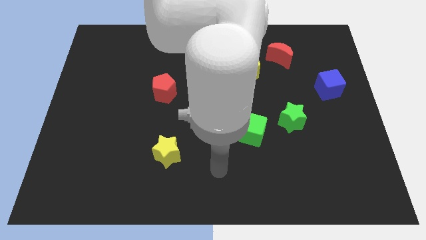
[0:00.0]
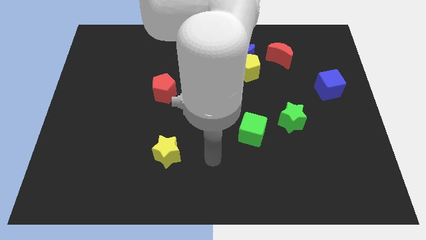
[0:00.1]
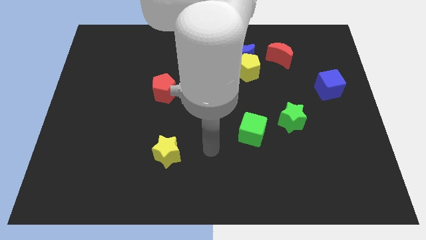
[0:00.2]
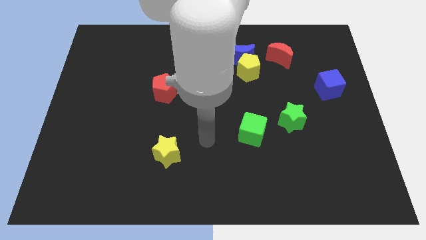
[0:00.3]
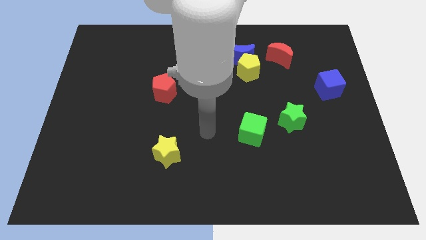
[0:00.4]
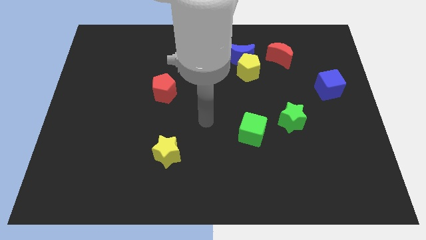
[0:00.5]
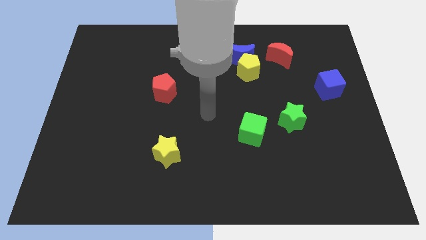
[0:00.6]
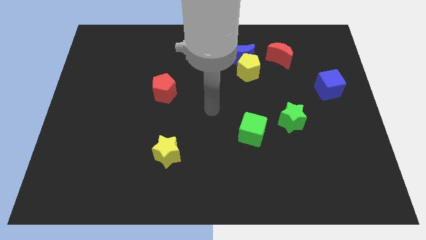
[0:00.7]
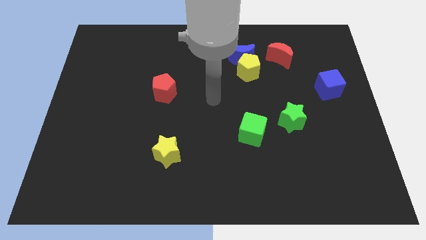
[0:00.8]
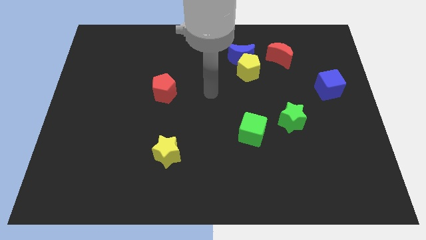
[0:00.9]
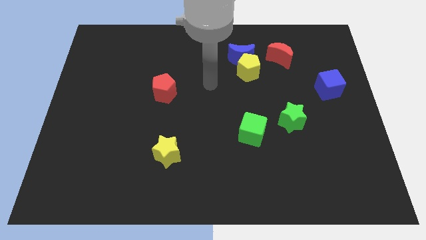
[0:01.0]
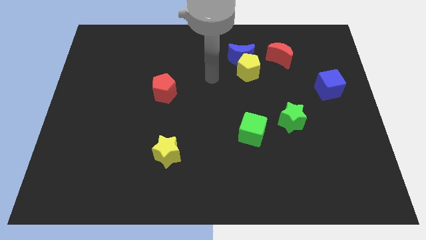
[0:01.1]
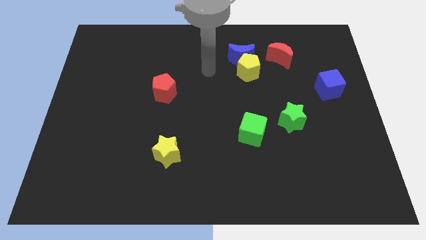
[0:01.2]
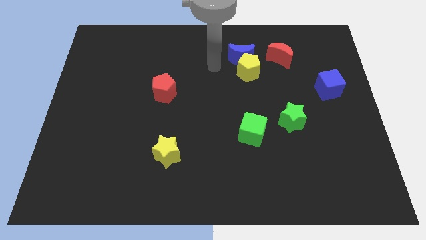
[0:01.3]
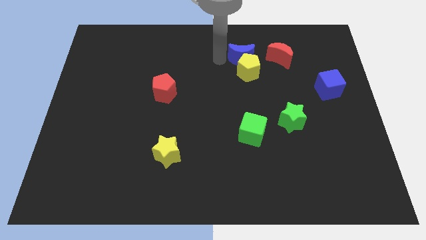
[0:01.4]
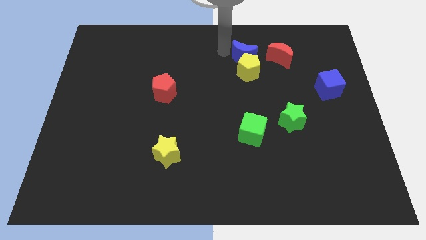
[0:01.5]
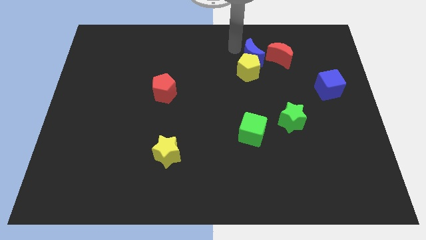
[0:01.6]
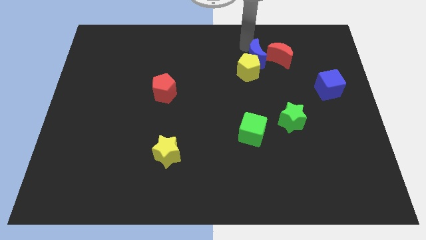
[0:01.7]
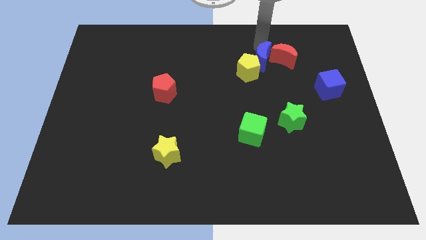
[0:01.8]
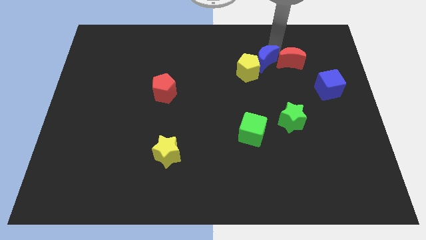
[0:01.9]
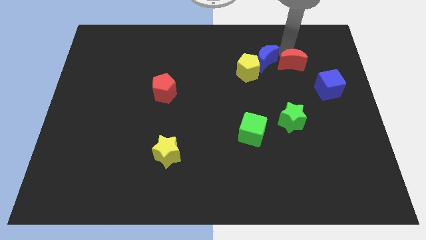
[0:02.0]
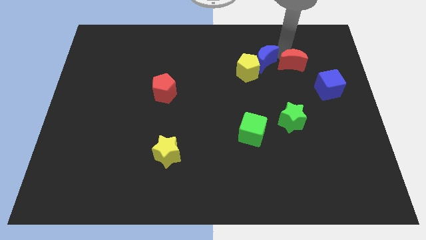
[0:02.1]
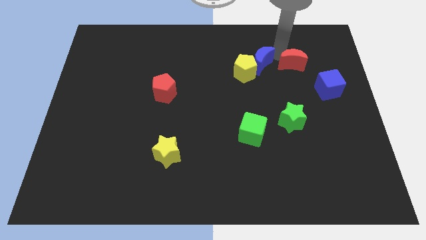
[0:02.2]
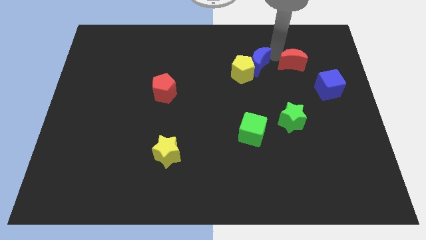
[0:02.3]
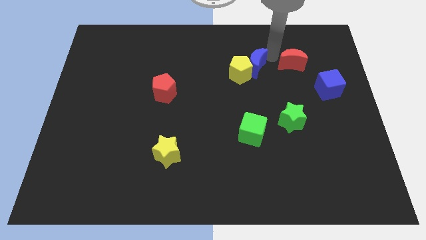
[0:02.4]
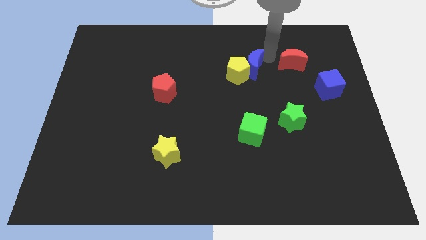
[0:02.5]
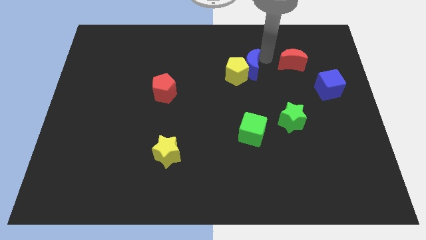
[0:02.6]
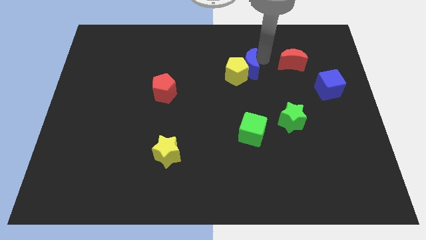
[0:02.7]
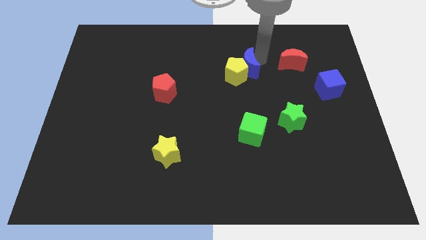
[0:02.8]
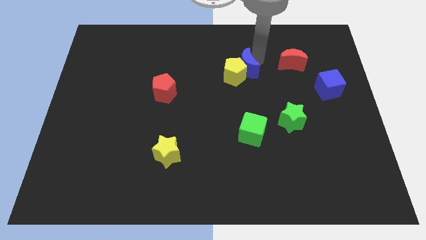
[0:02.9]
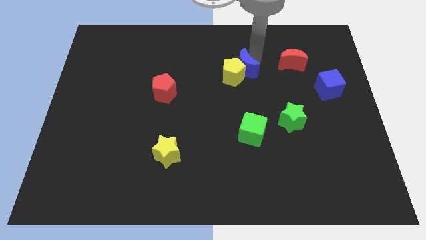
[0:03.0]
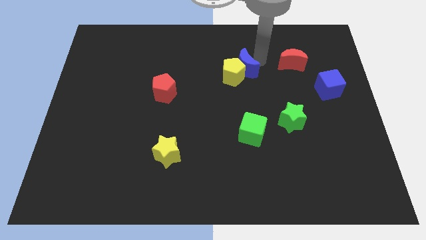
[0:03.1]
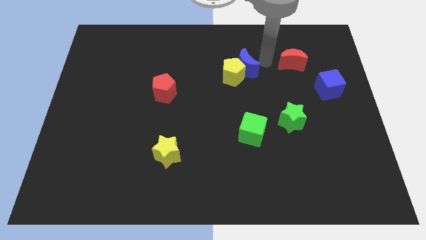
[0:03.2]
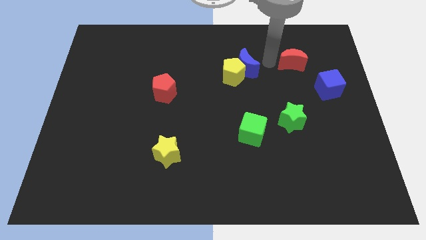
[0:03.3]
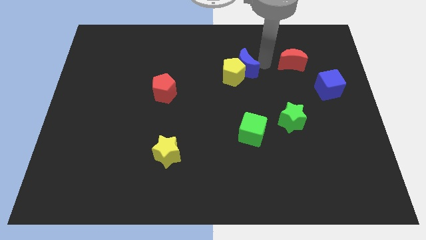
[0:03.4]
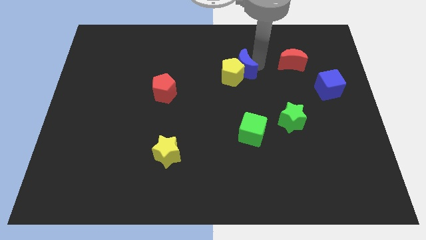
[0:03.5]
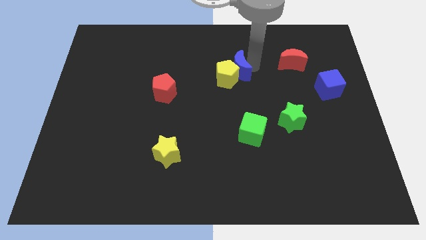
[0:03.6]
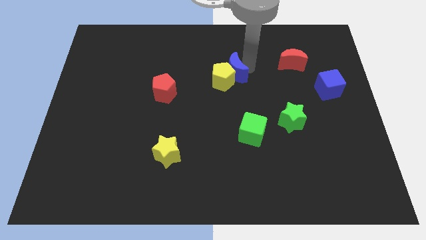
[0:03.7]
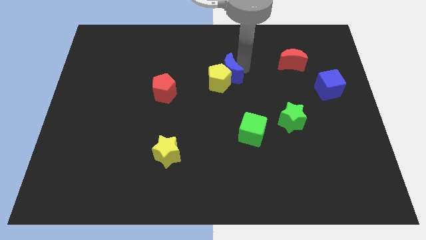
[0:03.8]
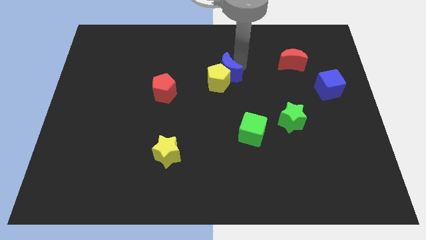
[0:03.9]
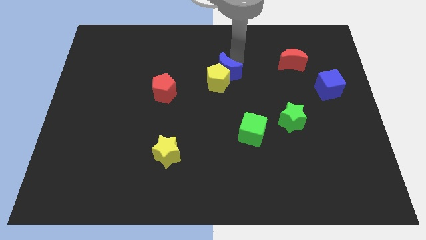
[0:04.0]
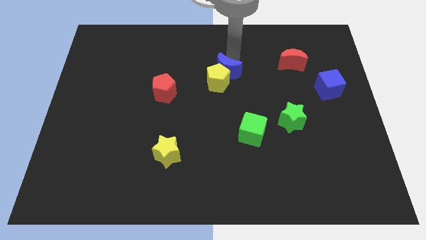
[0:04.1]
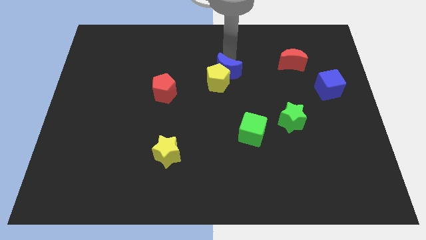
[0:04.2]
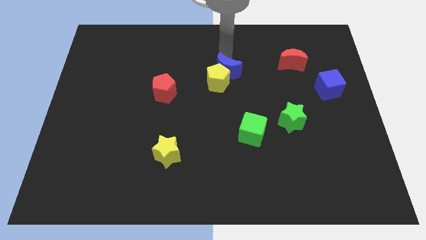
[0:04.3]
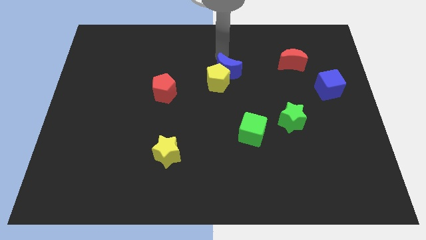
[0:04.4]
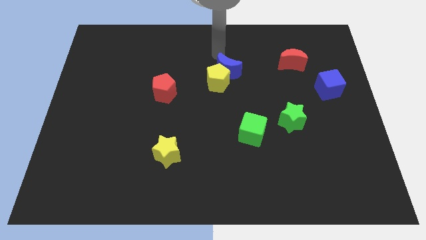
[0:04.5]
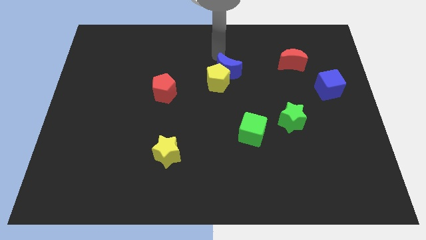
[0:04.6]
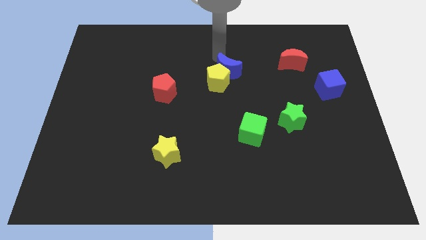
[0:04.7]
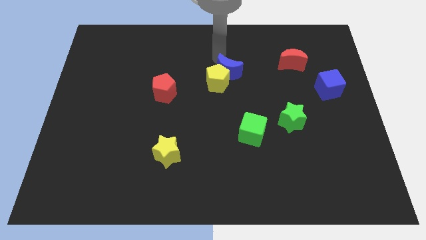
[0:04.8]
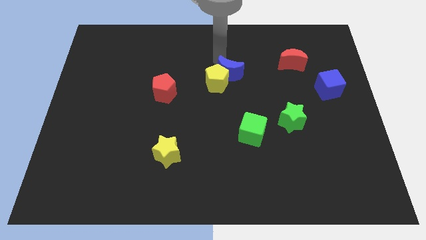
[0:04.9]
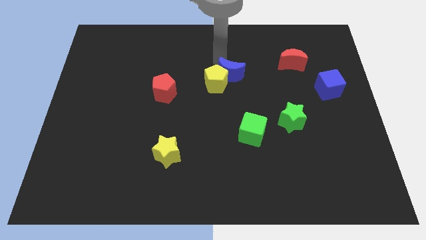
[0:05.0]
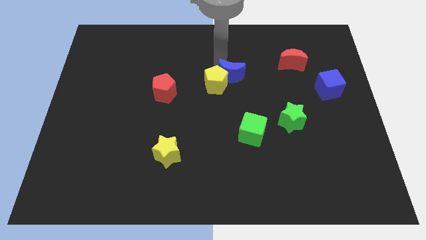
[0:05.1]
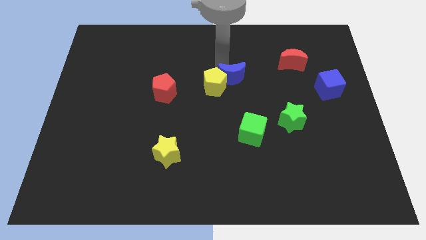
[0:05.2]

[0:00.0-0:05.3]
push the blue moon a little down

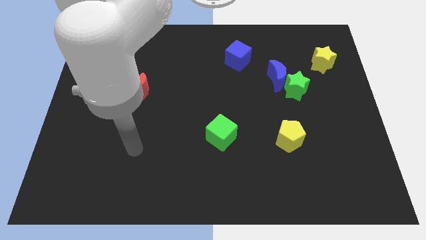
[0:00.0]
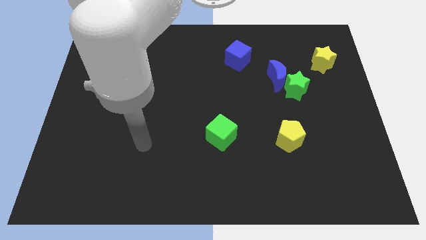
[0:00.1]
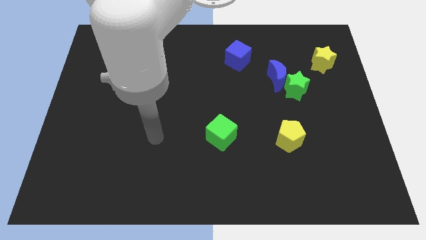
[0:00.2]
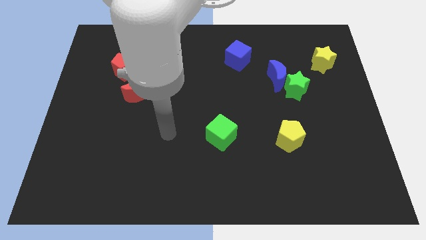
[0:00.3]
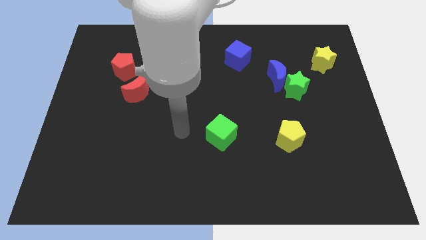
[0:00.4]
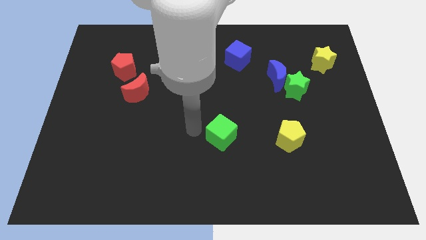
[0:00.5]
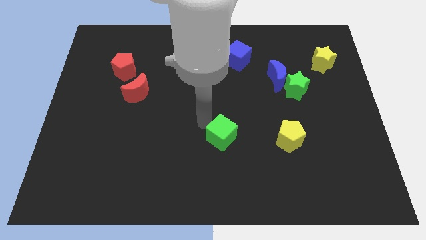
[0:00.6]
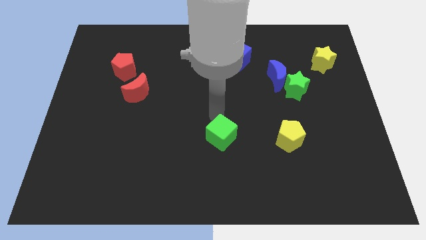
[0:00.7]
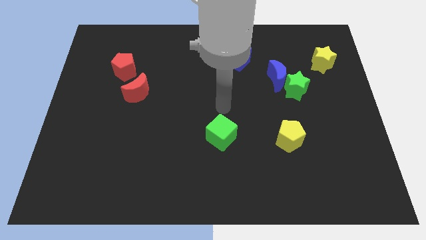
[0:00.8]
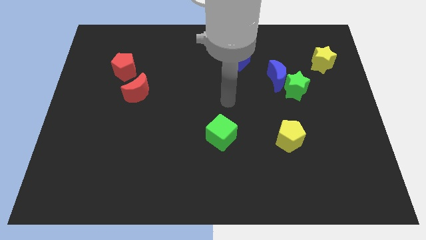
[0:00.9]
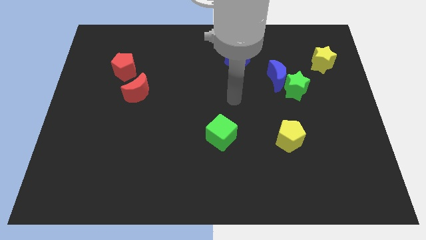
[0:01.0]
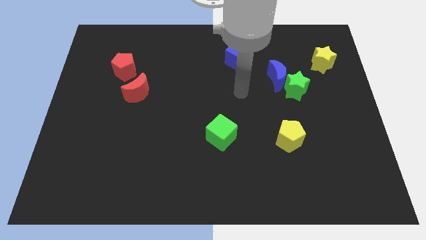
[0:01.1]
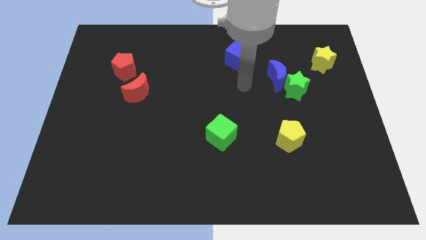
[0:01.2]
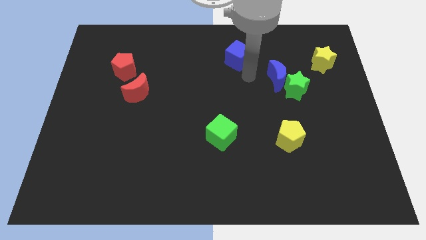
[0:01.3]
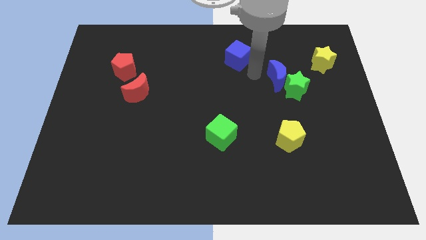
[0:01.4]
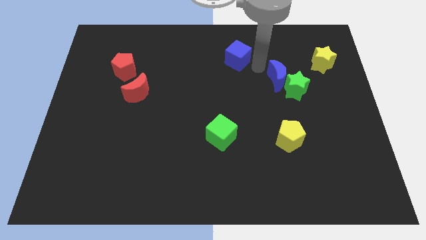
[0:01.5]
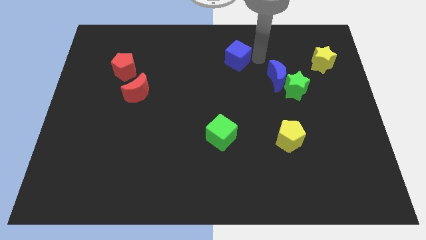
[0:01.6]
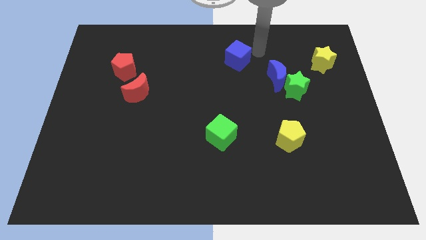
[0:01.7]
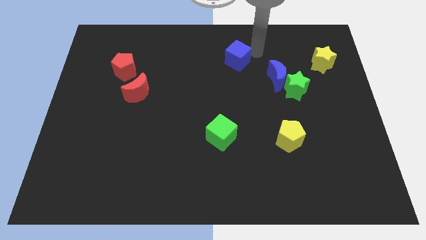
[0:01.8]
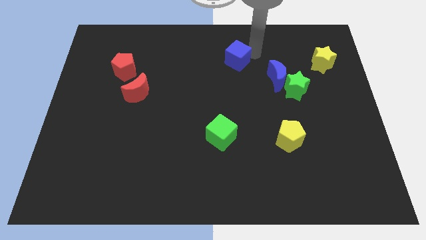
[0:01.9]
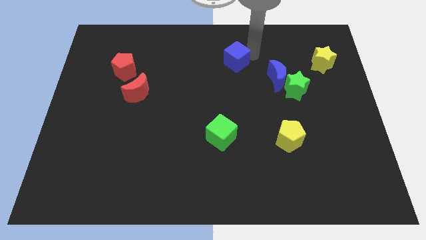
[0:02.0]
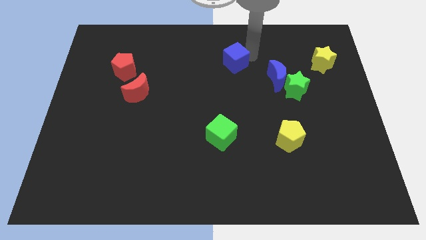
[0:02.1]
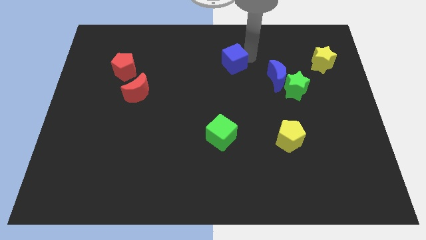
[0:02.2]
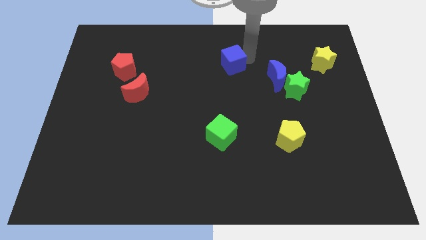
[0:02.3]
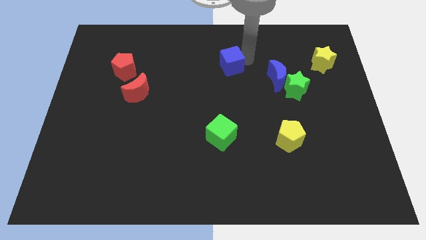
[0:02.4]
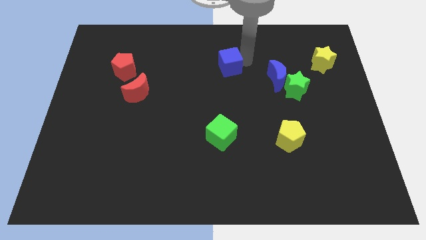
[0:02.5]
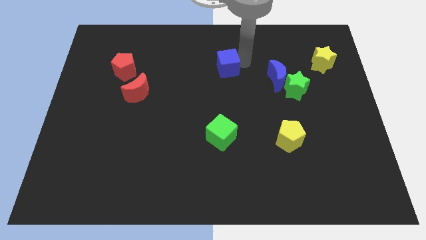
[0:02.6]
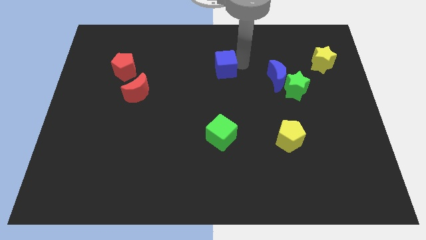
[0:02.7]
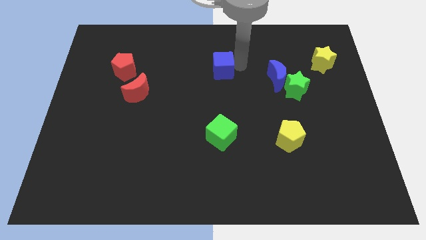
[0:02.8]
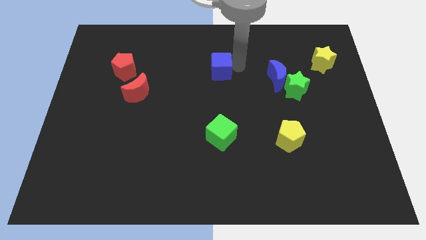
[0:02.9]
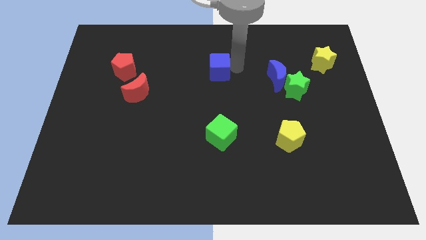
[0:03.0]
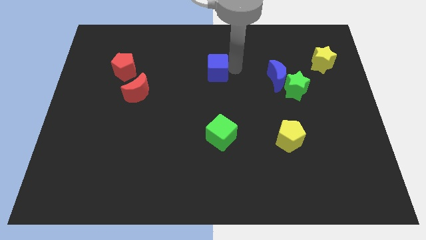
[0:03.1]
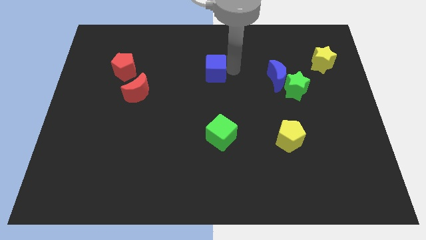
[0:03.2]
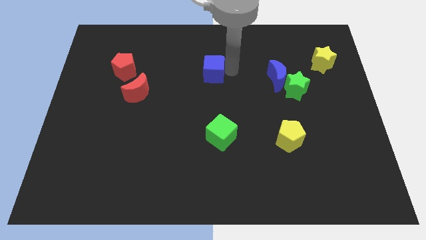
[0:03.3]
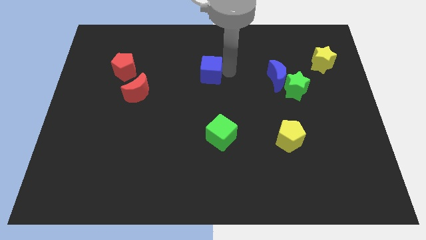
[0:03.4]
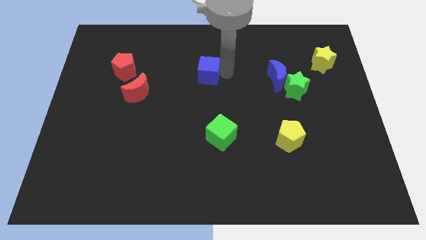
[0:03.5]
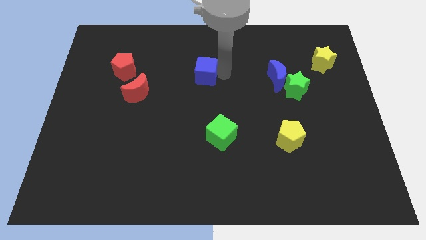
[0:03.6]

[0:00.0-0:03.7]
slightly slide the blue cube left
